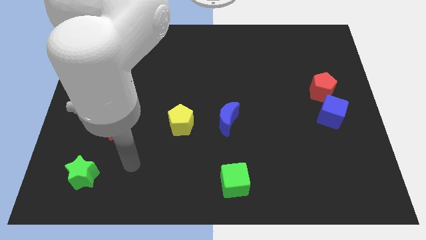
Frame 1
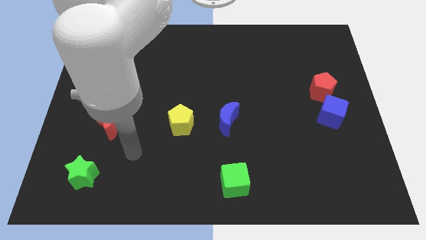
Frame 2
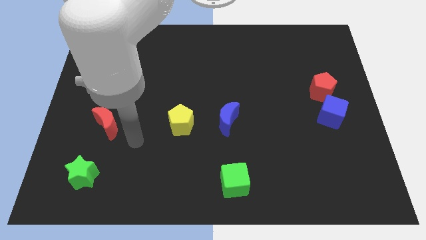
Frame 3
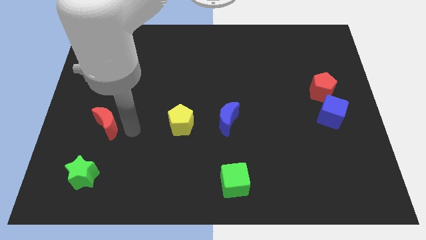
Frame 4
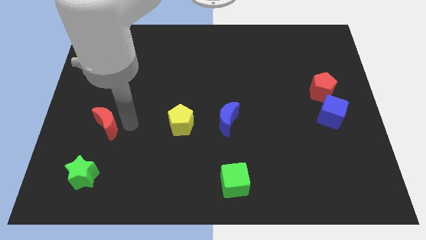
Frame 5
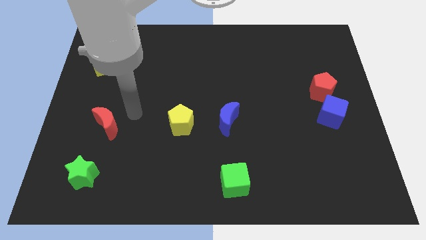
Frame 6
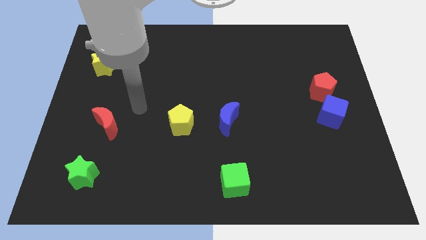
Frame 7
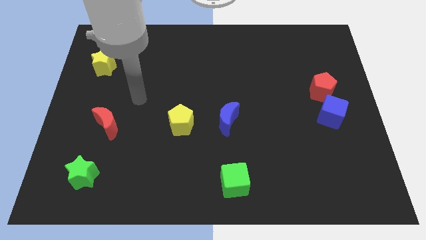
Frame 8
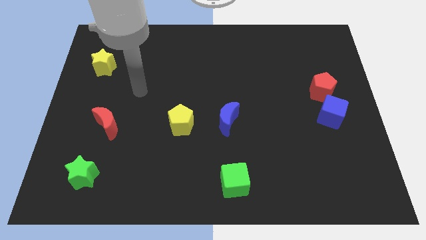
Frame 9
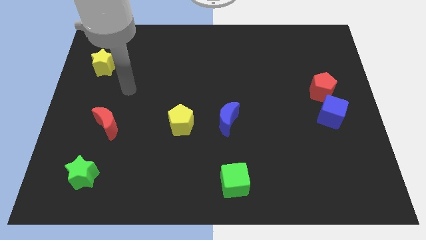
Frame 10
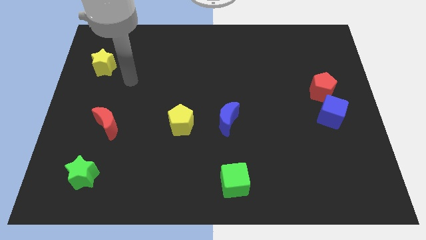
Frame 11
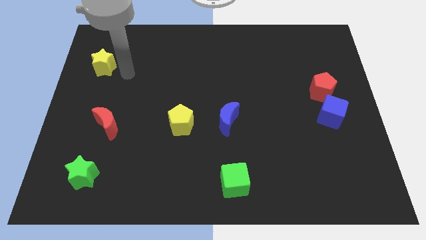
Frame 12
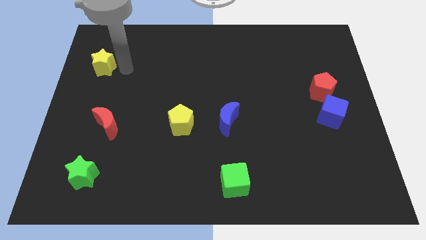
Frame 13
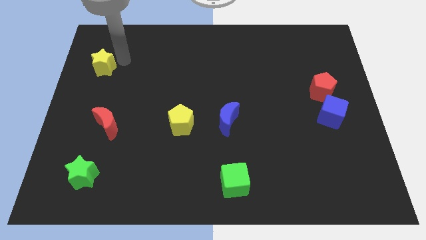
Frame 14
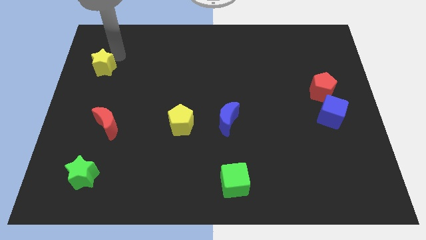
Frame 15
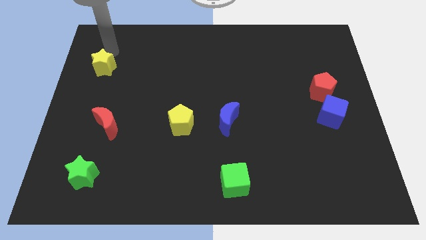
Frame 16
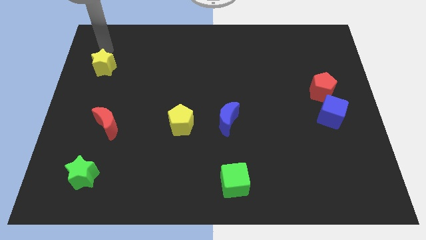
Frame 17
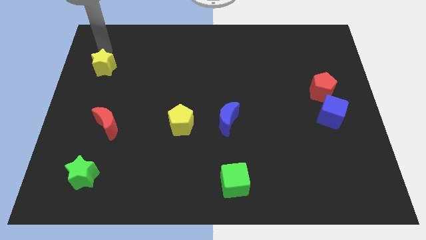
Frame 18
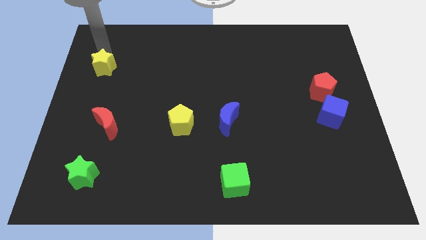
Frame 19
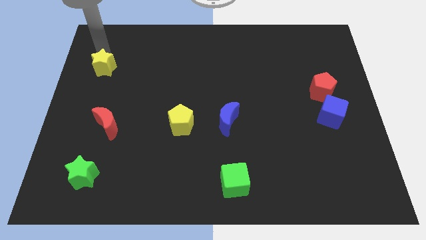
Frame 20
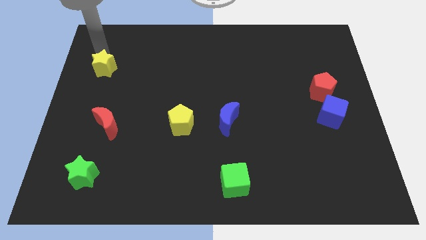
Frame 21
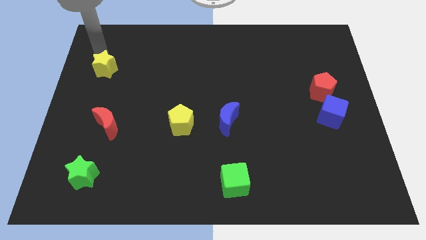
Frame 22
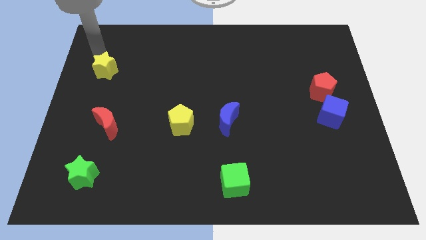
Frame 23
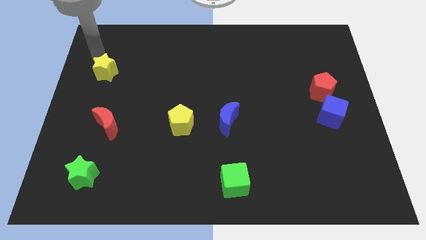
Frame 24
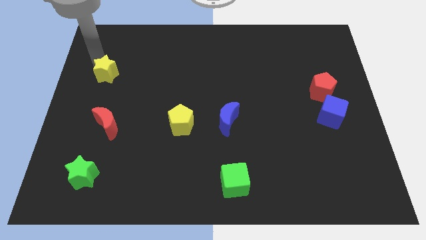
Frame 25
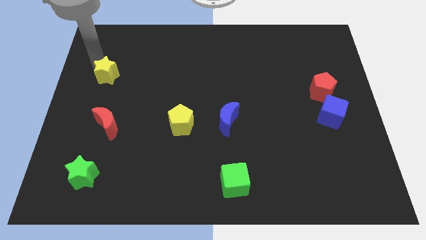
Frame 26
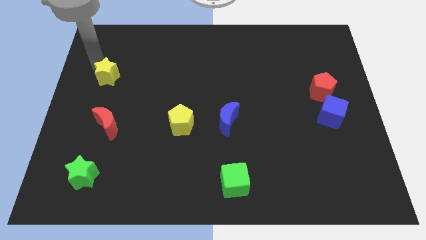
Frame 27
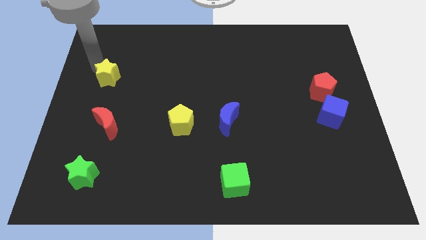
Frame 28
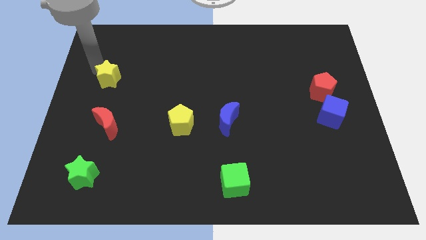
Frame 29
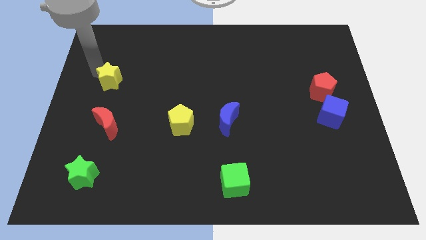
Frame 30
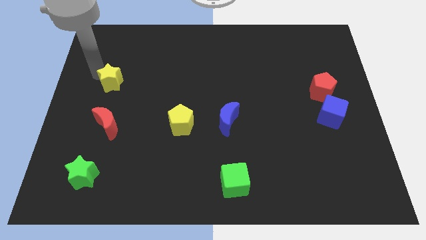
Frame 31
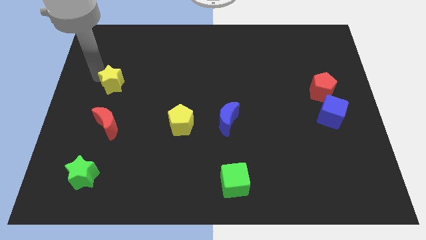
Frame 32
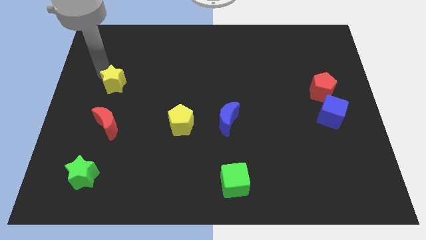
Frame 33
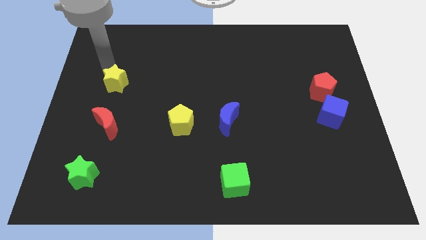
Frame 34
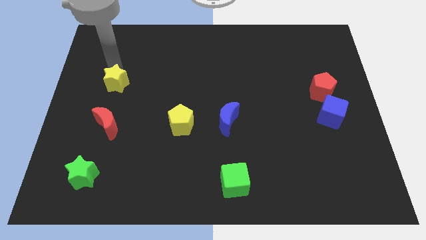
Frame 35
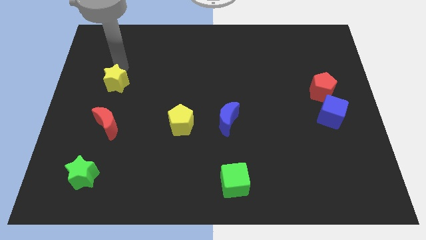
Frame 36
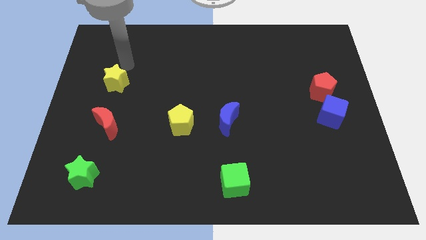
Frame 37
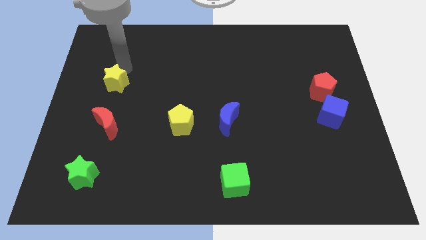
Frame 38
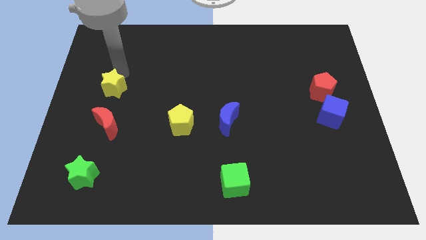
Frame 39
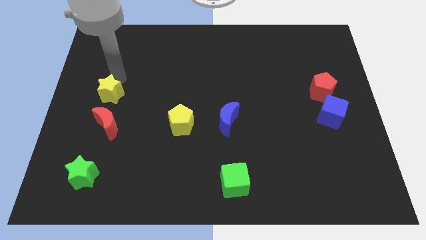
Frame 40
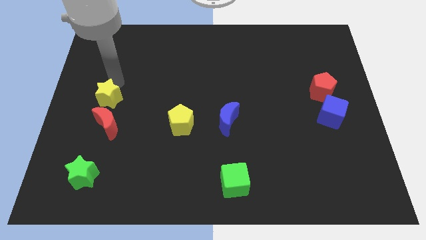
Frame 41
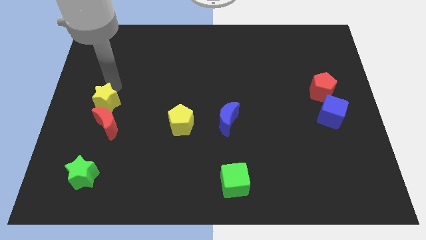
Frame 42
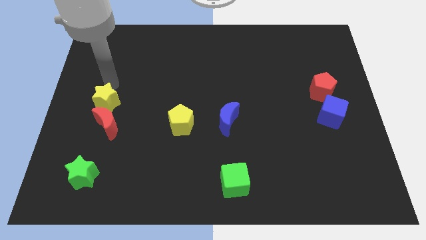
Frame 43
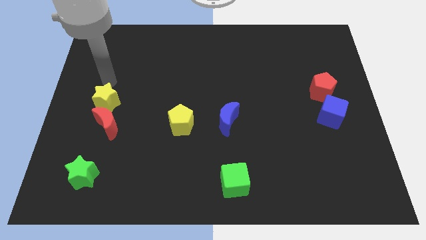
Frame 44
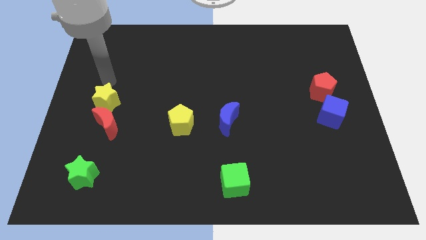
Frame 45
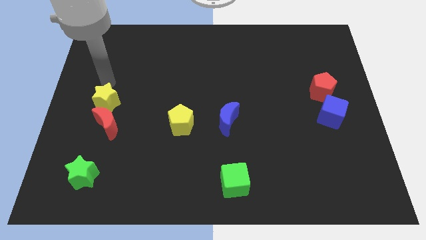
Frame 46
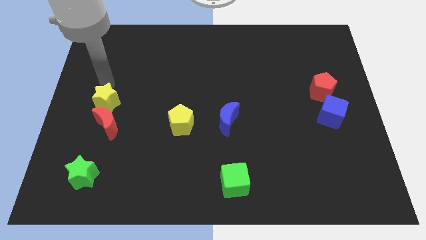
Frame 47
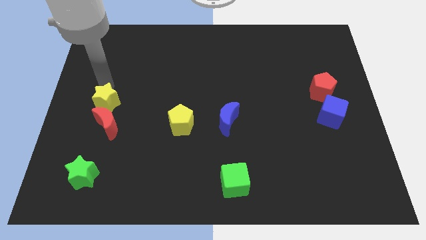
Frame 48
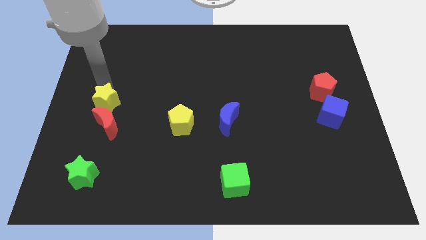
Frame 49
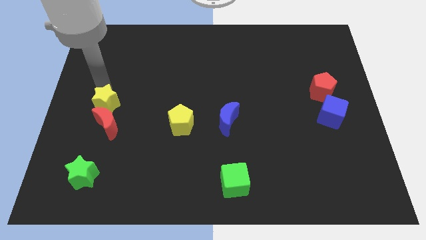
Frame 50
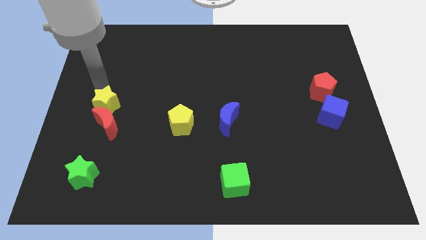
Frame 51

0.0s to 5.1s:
slide the yellow star to the red moon

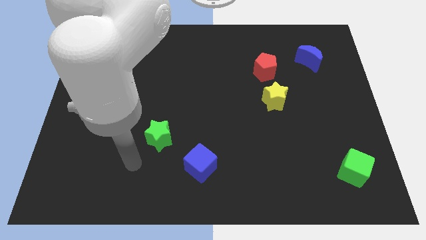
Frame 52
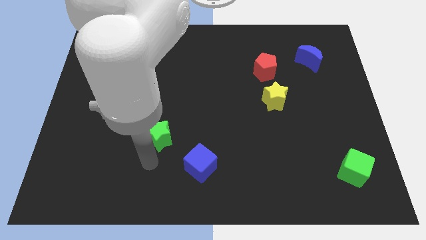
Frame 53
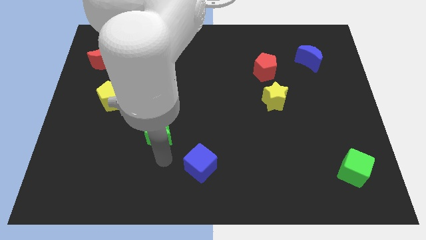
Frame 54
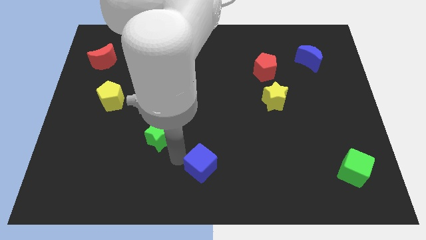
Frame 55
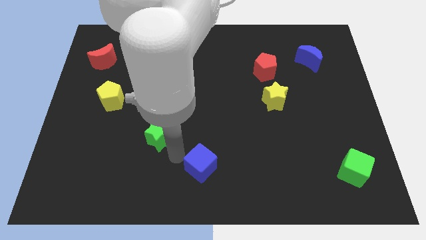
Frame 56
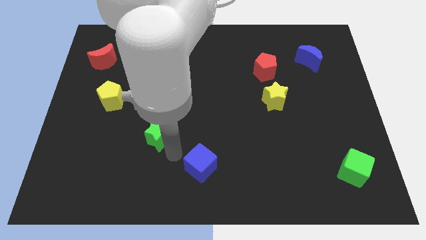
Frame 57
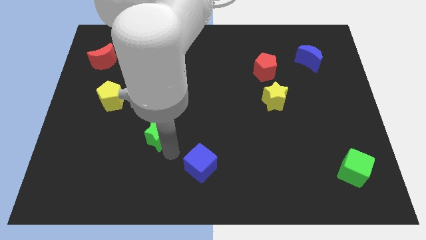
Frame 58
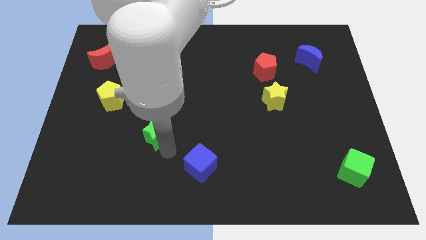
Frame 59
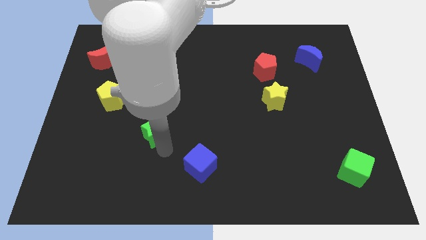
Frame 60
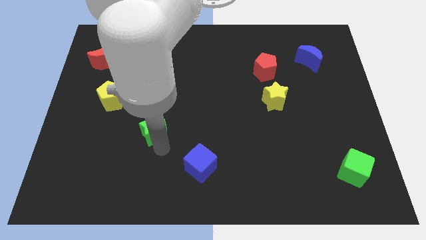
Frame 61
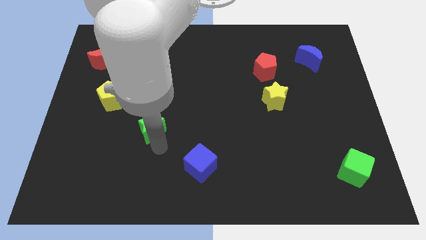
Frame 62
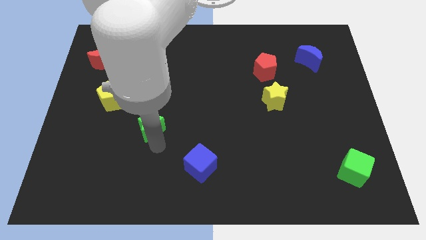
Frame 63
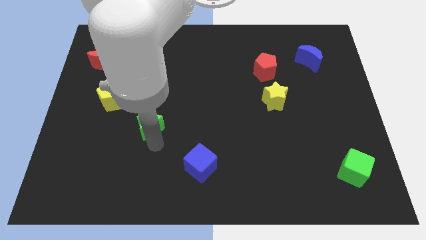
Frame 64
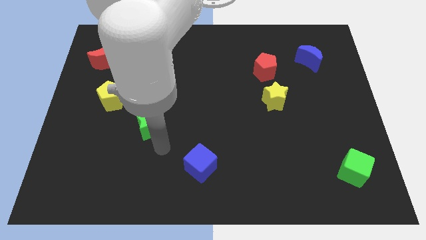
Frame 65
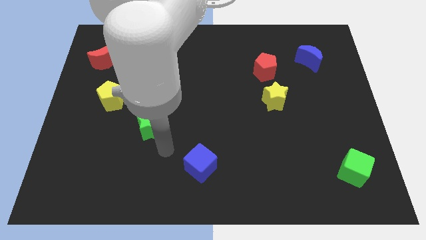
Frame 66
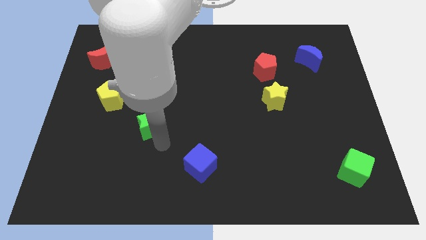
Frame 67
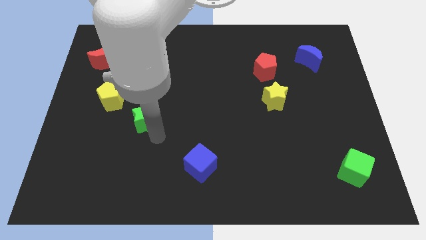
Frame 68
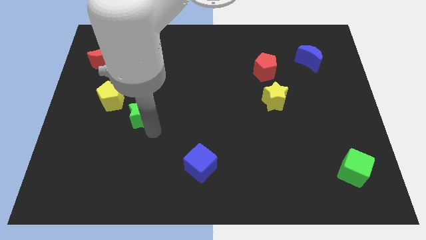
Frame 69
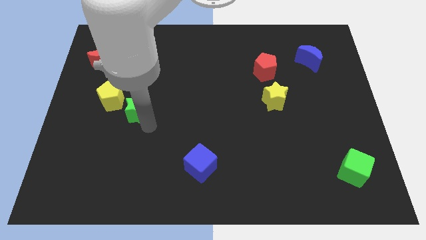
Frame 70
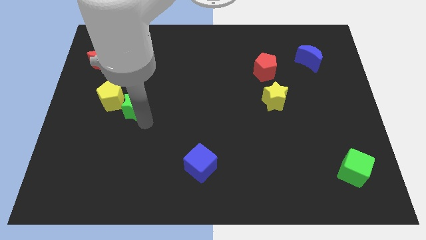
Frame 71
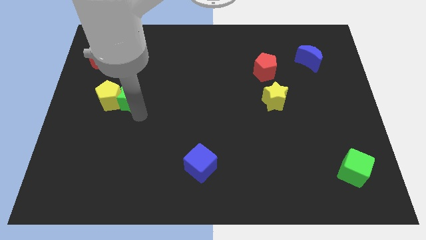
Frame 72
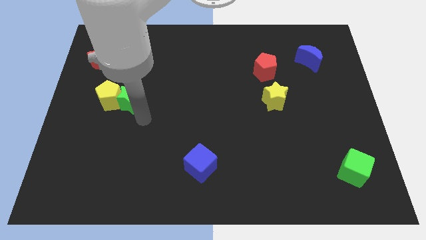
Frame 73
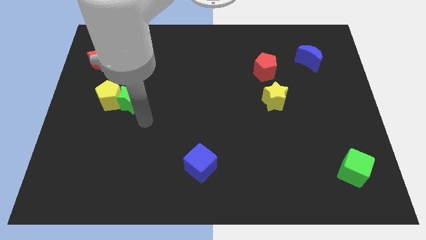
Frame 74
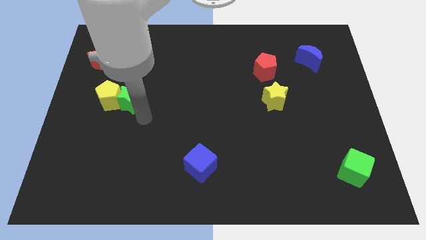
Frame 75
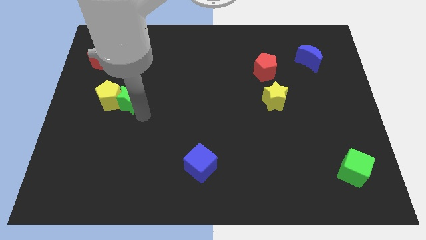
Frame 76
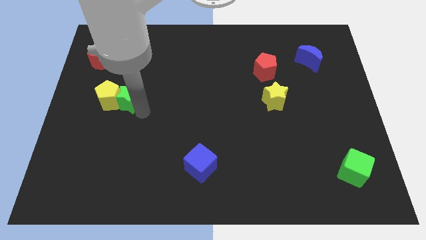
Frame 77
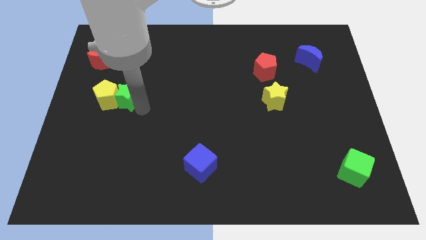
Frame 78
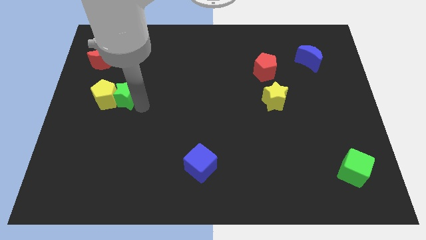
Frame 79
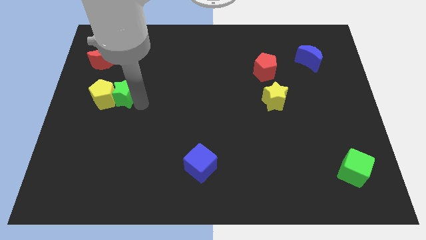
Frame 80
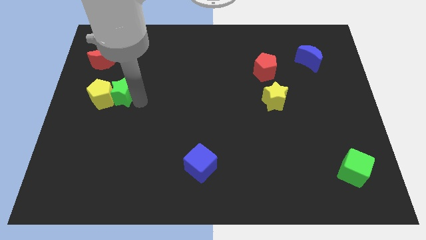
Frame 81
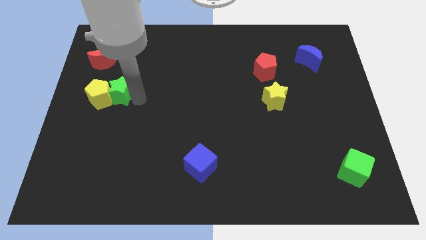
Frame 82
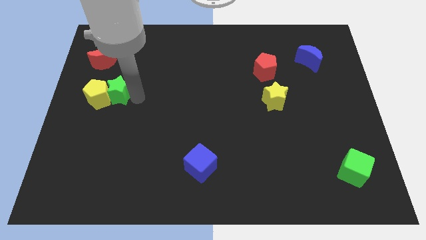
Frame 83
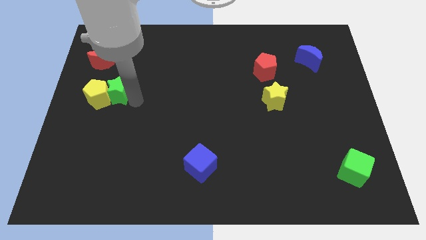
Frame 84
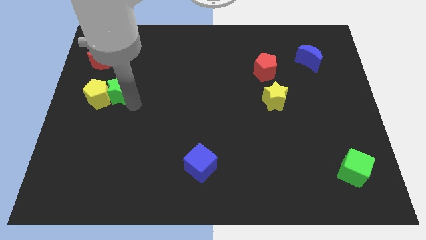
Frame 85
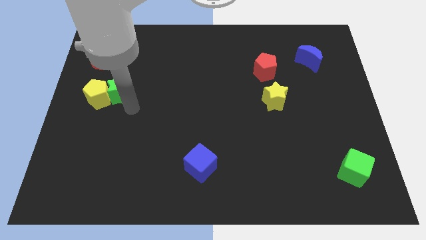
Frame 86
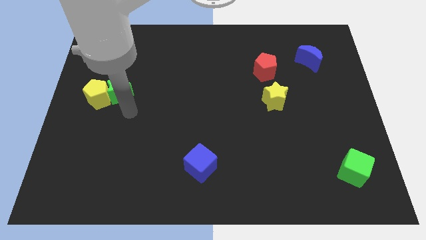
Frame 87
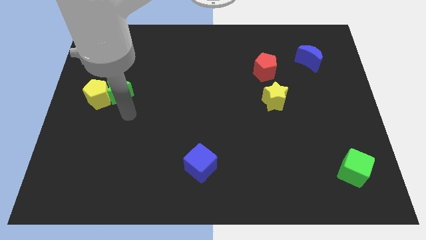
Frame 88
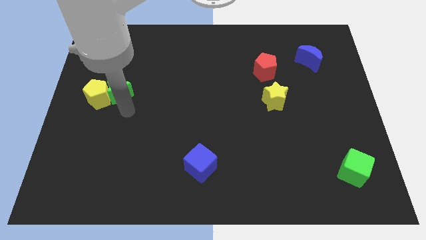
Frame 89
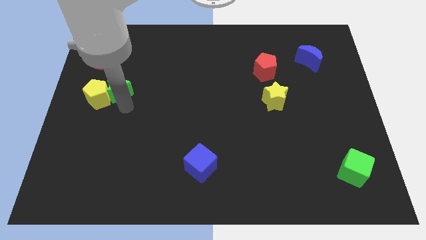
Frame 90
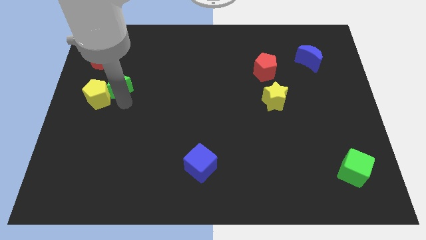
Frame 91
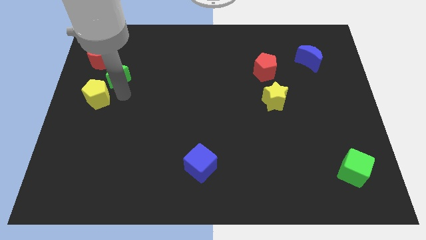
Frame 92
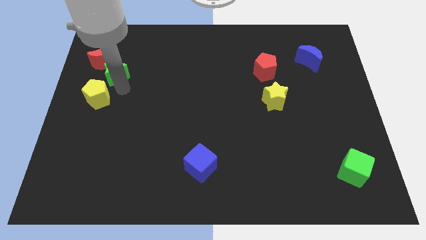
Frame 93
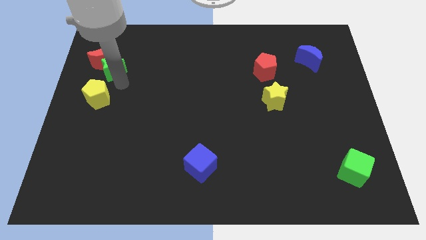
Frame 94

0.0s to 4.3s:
put the green star towards the red moon
